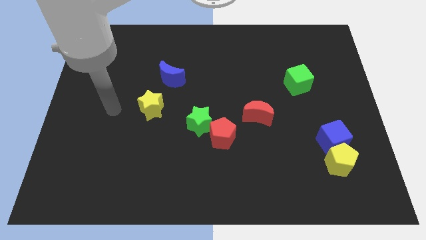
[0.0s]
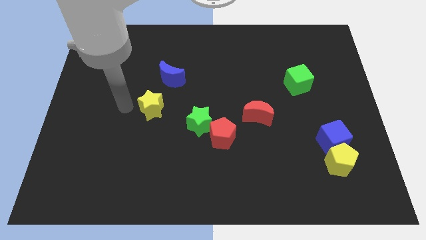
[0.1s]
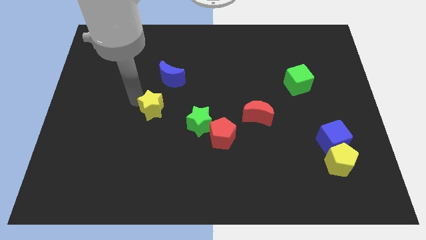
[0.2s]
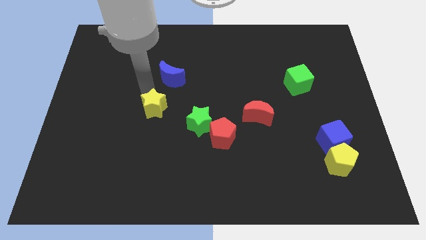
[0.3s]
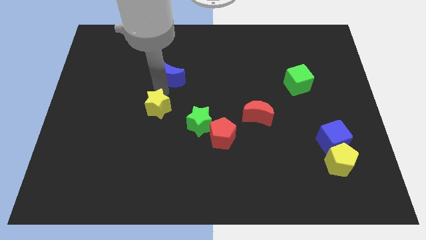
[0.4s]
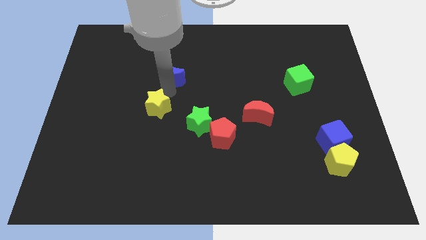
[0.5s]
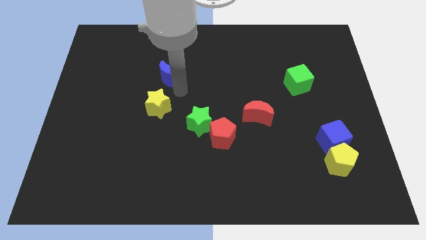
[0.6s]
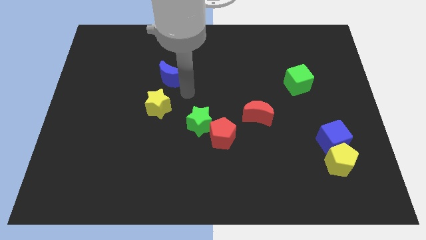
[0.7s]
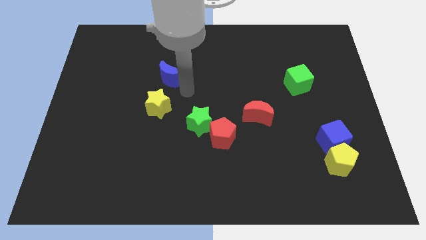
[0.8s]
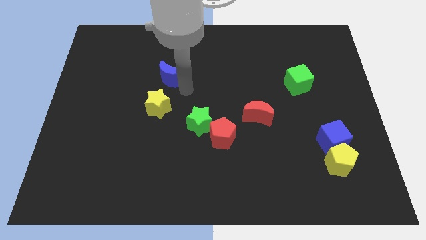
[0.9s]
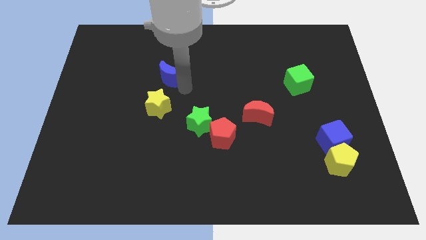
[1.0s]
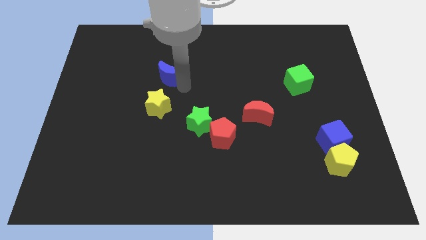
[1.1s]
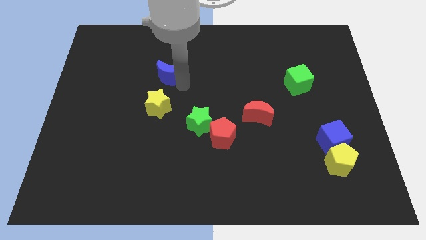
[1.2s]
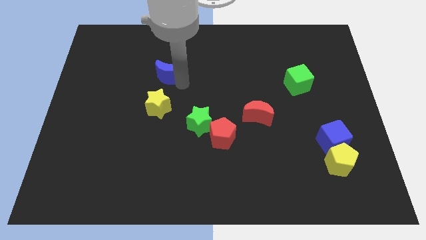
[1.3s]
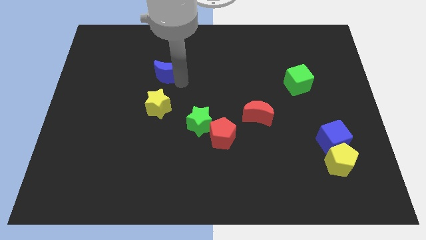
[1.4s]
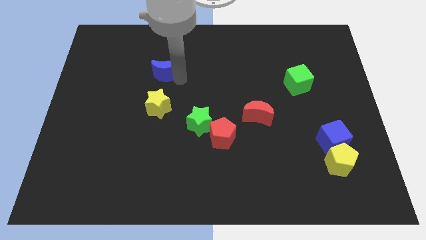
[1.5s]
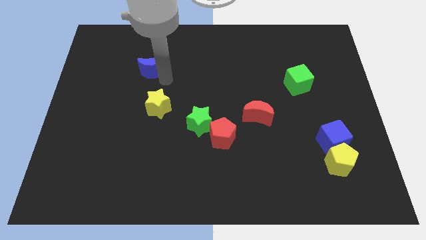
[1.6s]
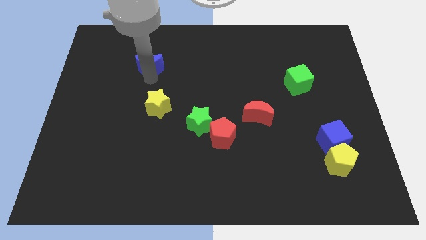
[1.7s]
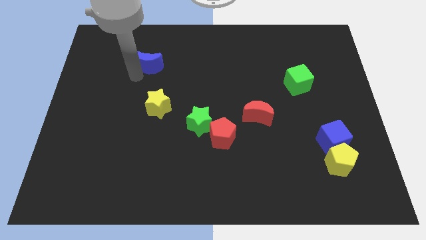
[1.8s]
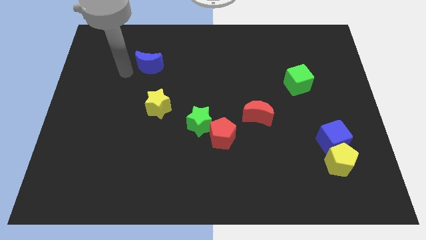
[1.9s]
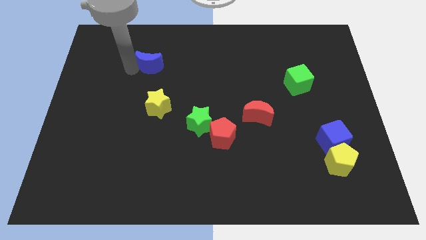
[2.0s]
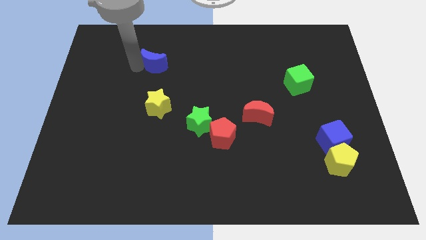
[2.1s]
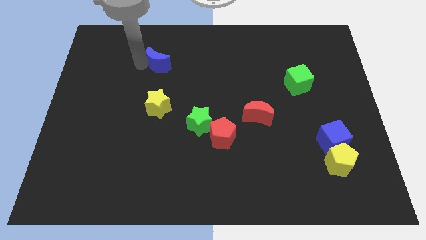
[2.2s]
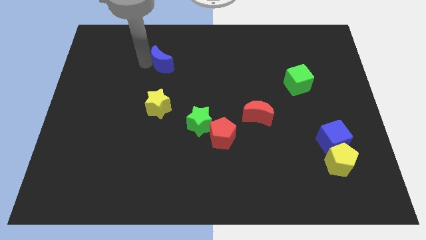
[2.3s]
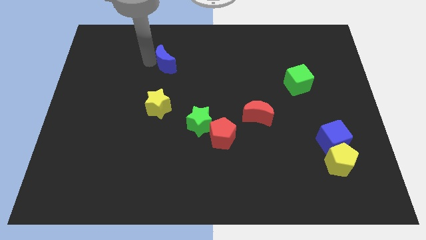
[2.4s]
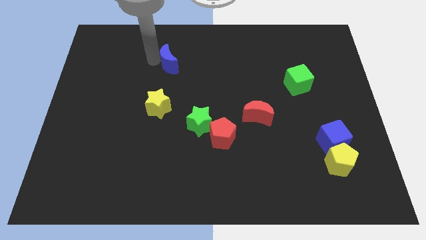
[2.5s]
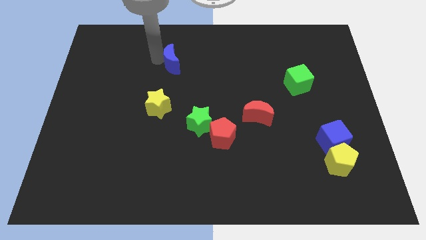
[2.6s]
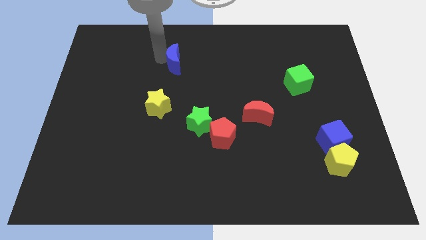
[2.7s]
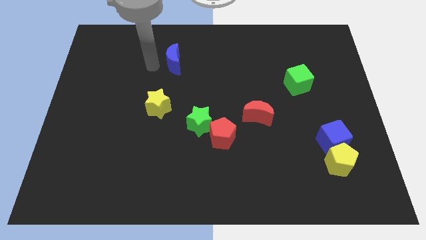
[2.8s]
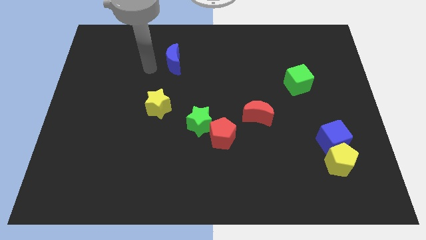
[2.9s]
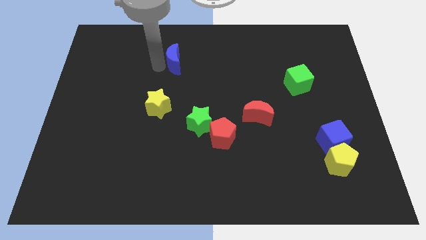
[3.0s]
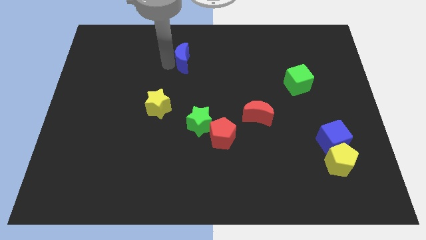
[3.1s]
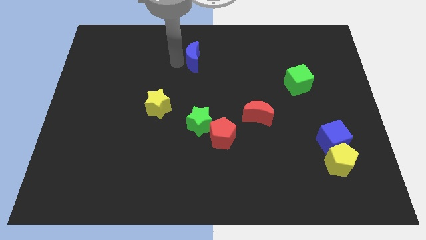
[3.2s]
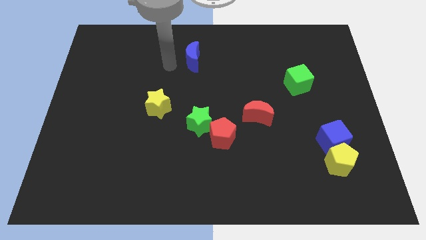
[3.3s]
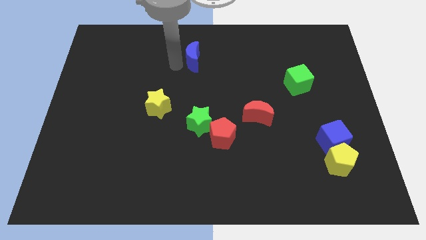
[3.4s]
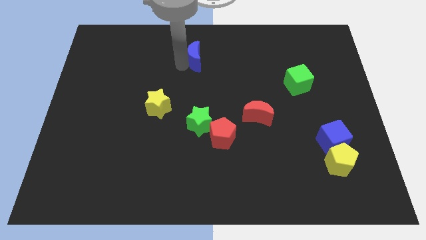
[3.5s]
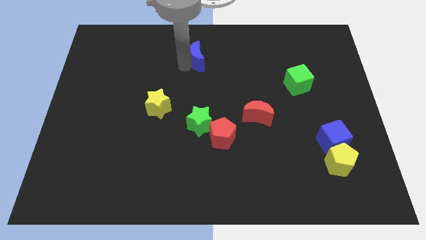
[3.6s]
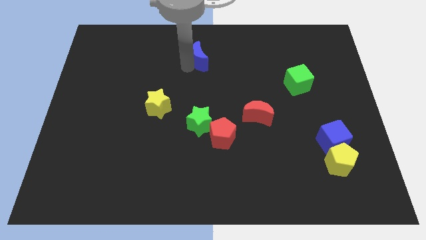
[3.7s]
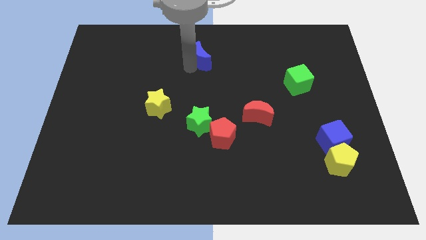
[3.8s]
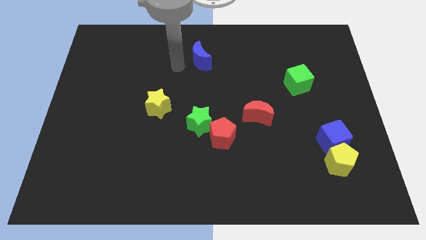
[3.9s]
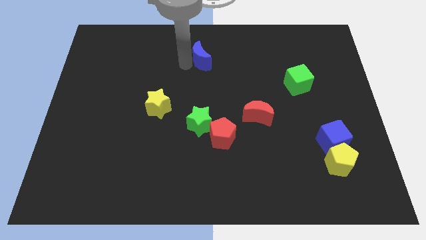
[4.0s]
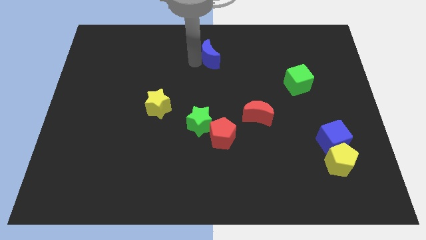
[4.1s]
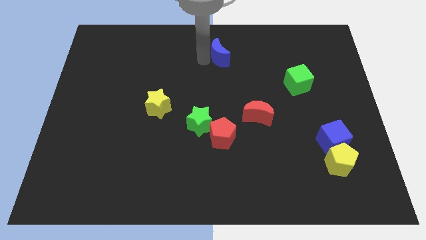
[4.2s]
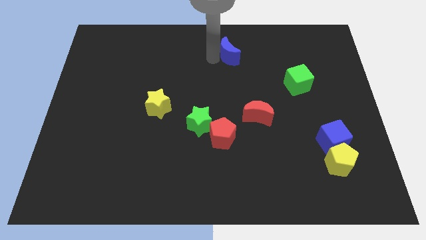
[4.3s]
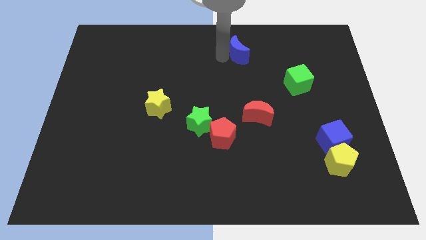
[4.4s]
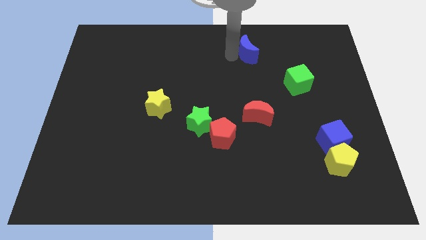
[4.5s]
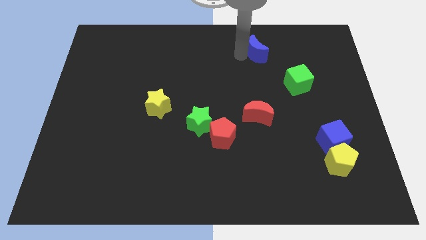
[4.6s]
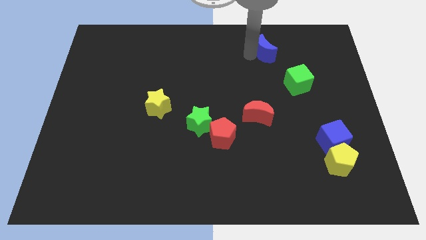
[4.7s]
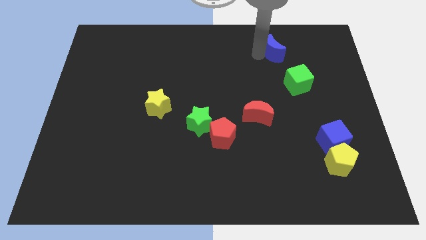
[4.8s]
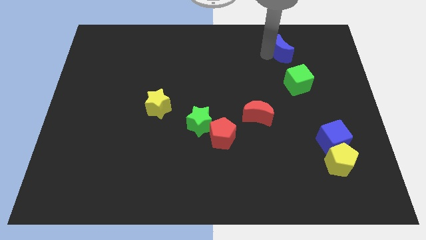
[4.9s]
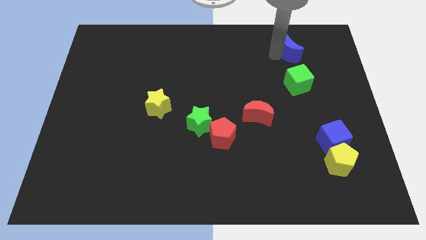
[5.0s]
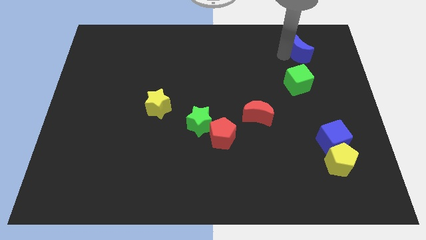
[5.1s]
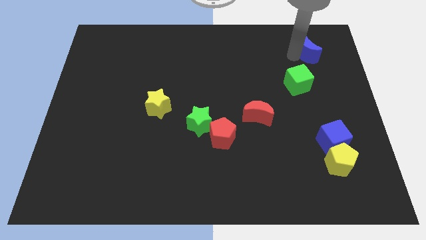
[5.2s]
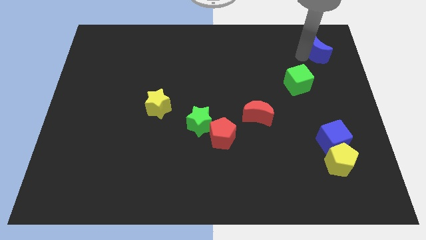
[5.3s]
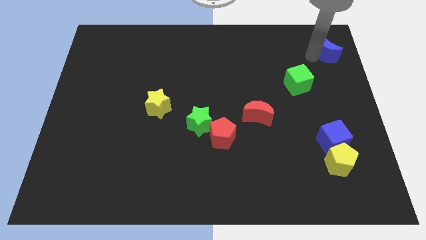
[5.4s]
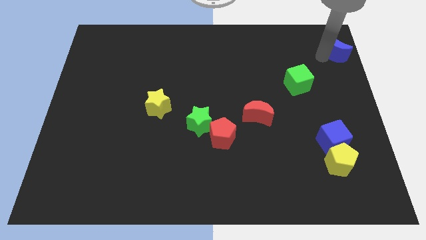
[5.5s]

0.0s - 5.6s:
put the blue moon to the top right corner

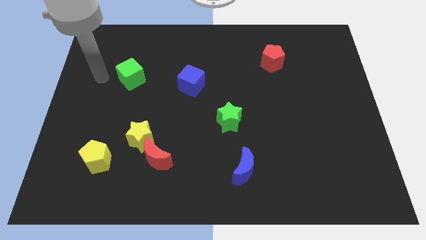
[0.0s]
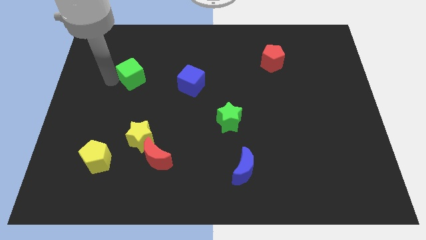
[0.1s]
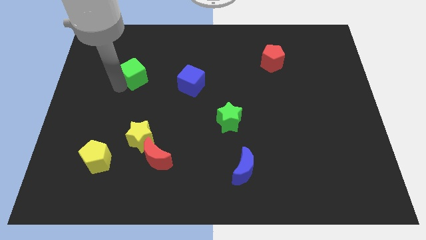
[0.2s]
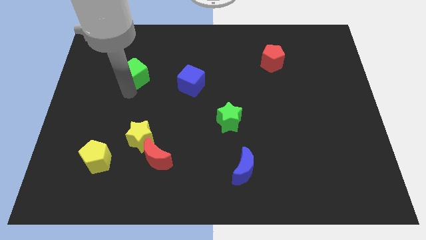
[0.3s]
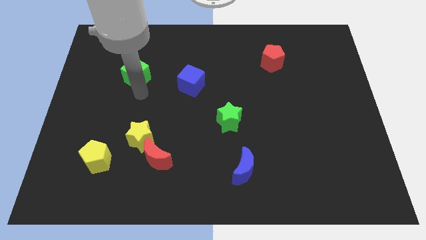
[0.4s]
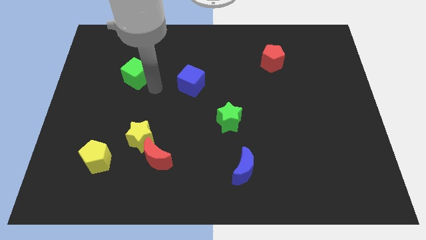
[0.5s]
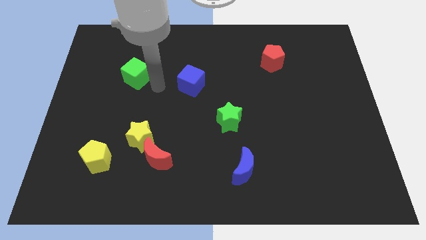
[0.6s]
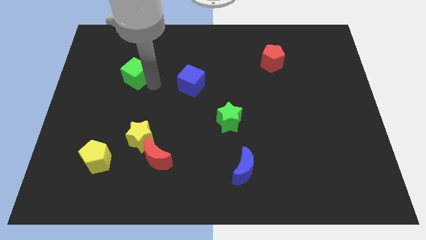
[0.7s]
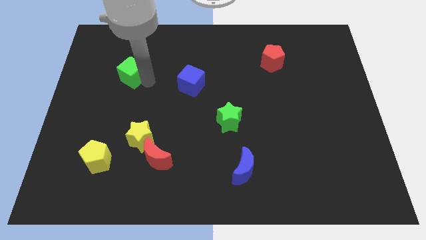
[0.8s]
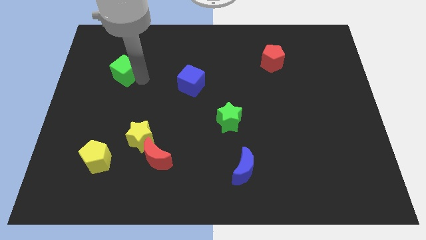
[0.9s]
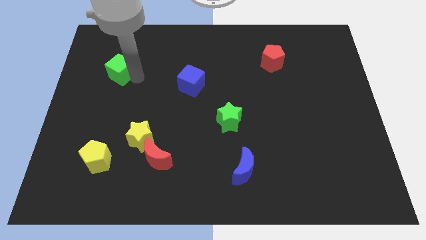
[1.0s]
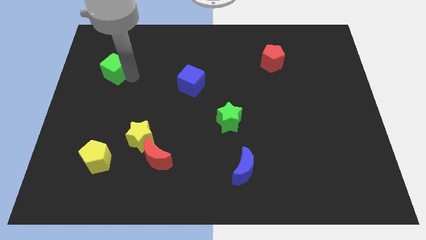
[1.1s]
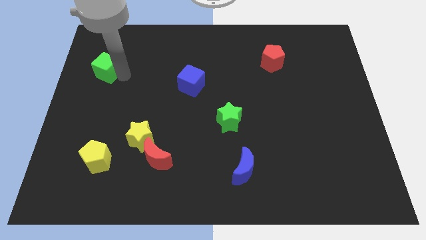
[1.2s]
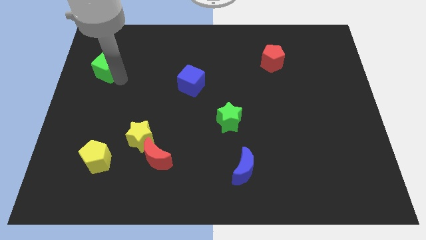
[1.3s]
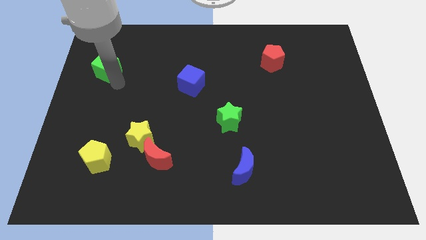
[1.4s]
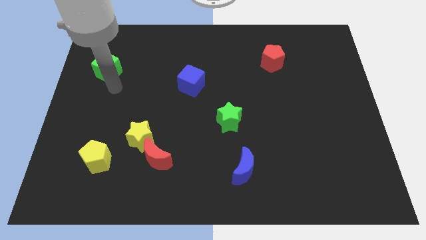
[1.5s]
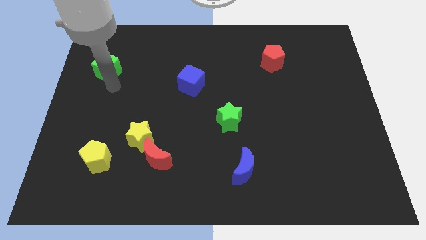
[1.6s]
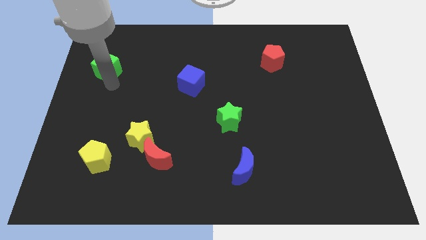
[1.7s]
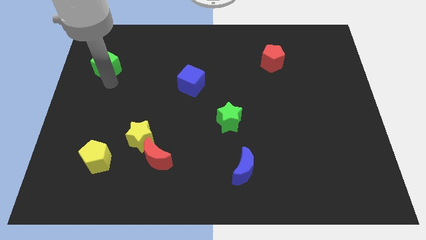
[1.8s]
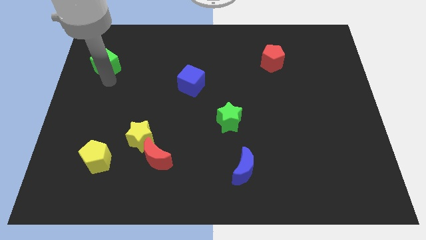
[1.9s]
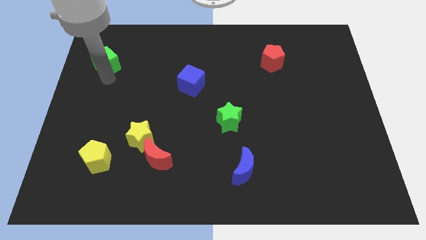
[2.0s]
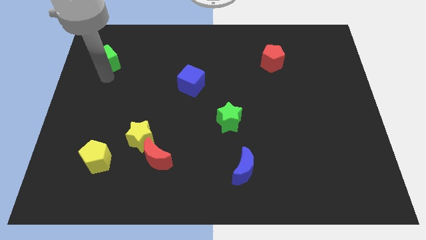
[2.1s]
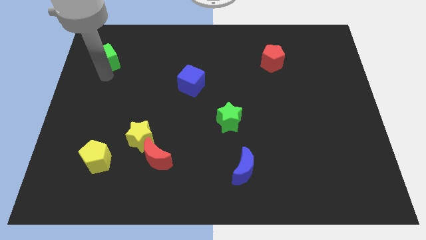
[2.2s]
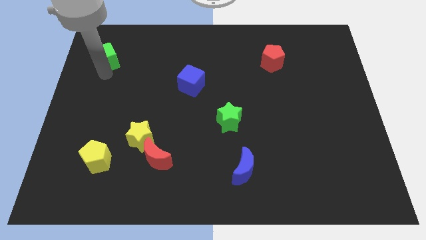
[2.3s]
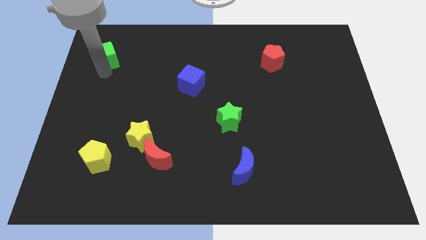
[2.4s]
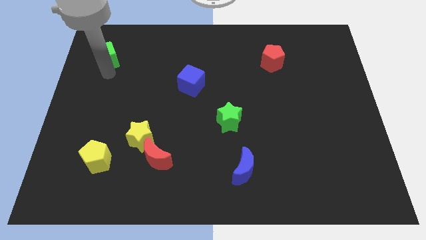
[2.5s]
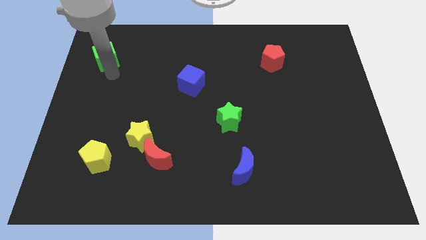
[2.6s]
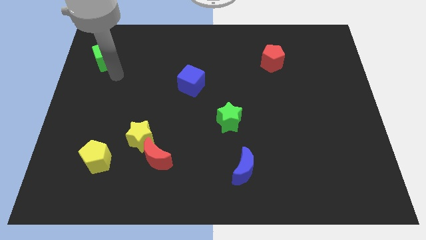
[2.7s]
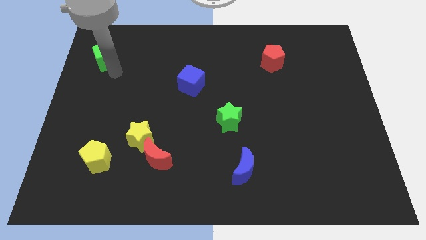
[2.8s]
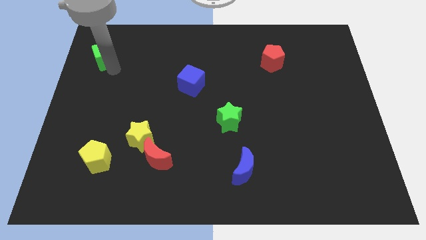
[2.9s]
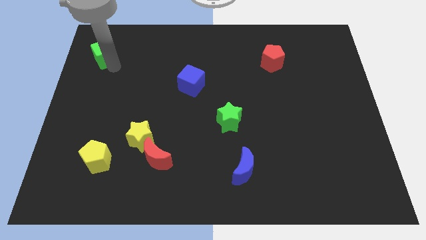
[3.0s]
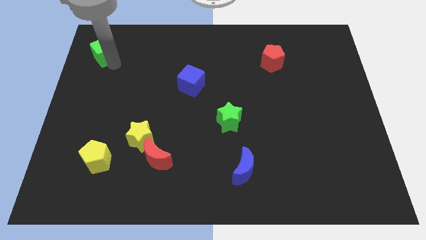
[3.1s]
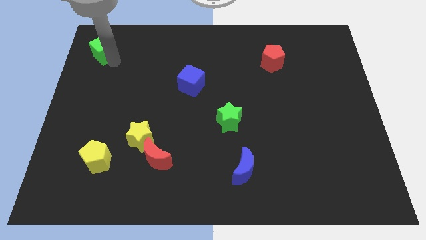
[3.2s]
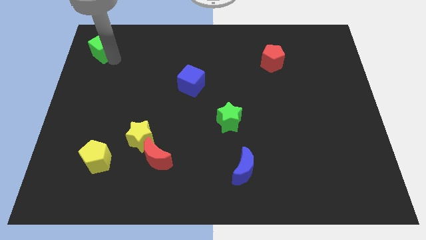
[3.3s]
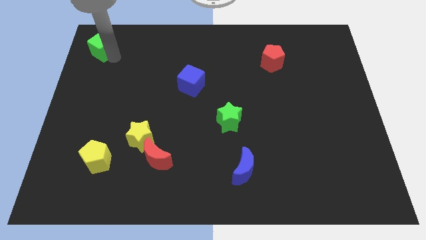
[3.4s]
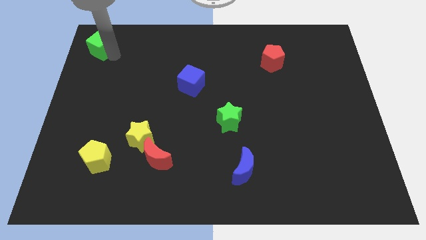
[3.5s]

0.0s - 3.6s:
push the green cube to the upper left corner
